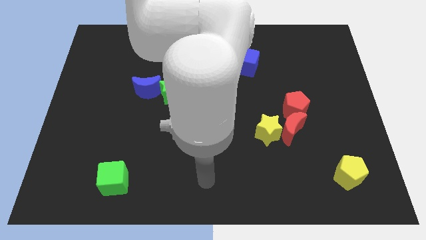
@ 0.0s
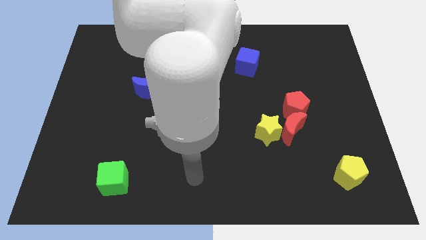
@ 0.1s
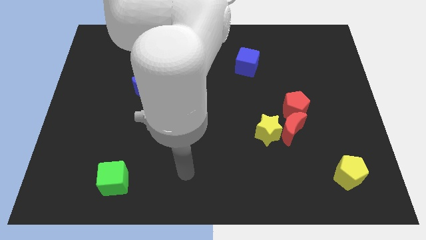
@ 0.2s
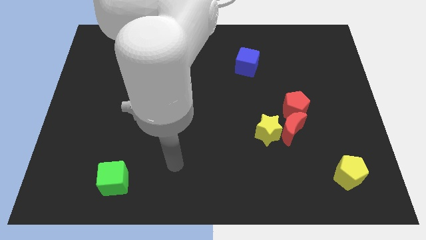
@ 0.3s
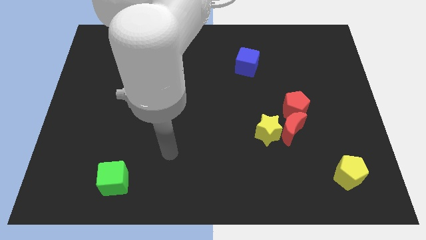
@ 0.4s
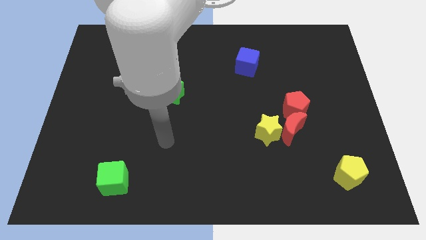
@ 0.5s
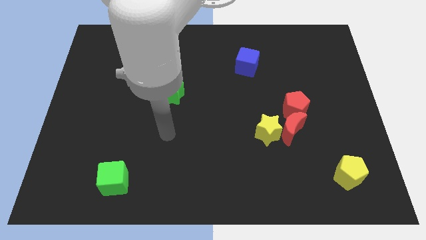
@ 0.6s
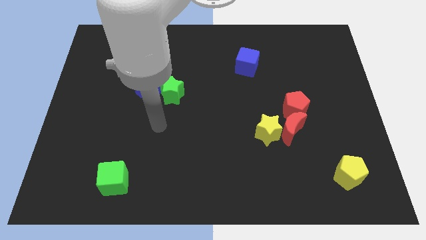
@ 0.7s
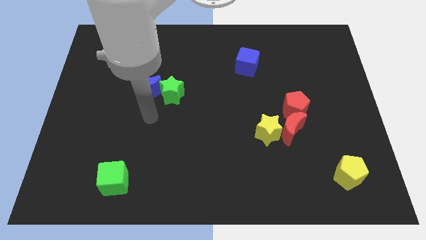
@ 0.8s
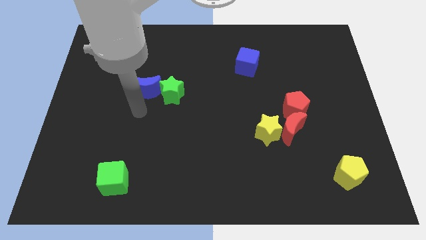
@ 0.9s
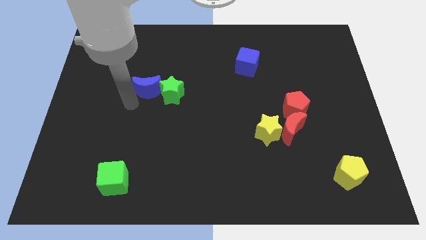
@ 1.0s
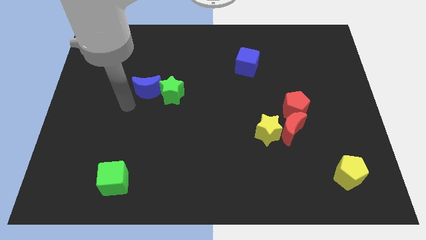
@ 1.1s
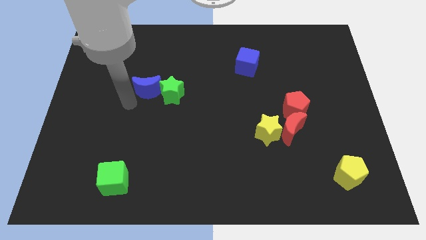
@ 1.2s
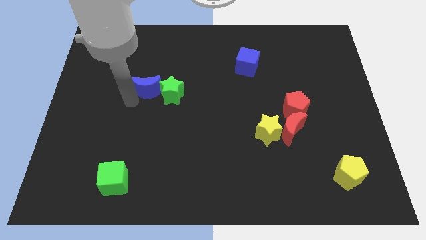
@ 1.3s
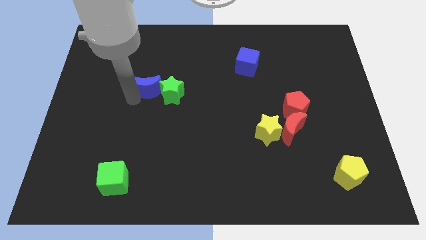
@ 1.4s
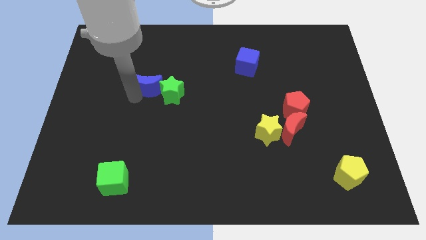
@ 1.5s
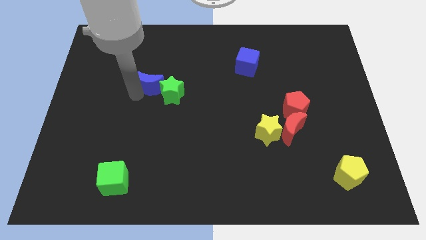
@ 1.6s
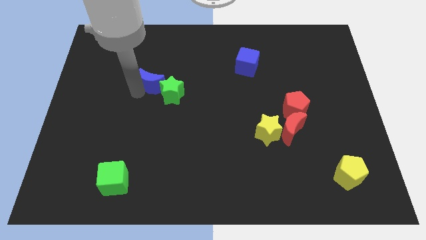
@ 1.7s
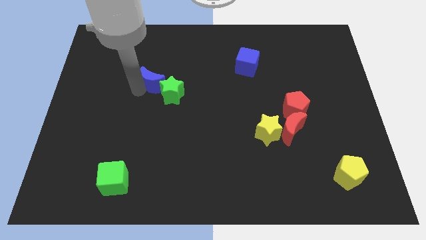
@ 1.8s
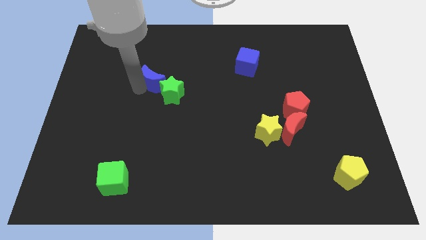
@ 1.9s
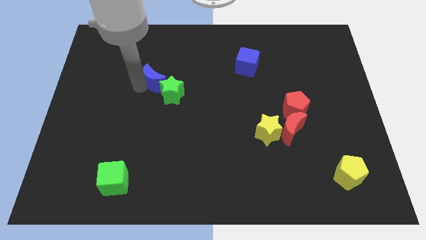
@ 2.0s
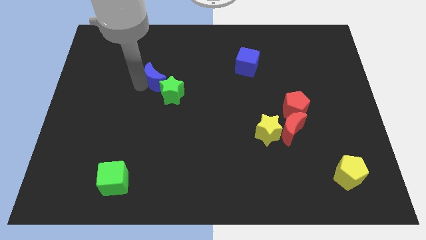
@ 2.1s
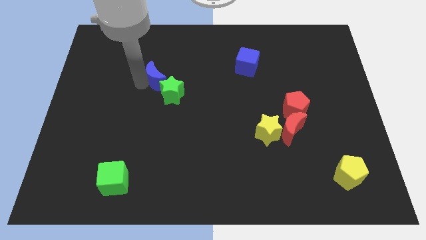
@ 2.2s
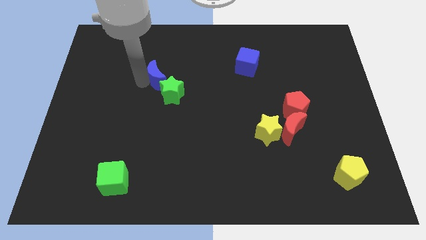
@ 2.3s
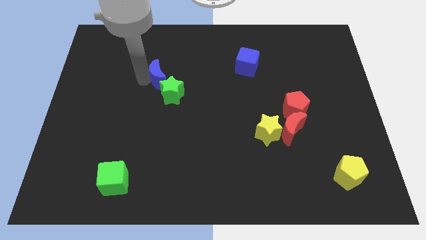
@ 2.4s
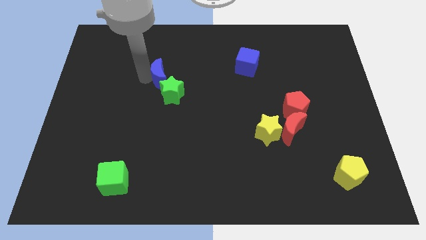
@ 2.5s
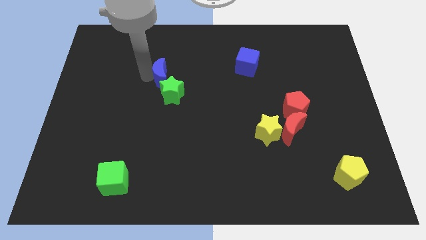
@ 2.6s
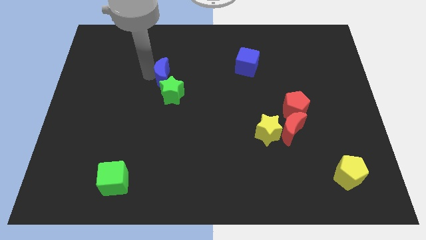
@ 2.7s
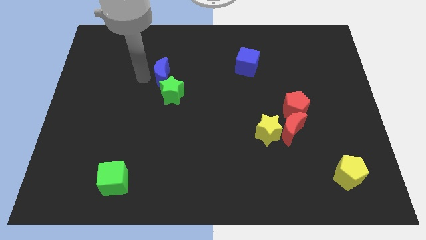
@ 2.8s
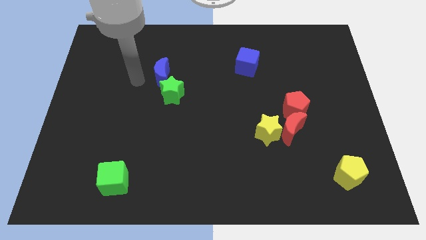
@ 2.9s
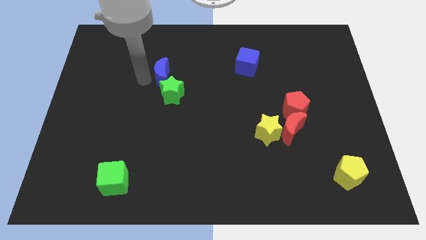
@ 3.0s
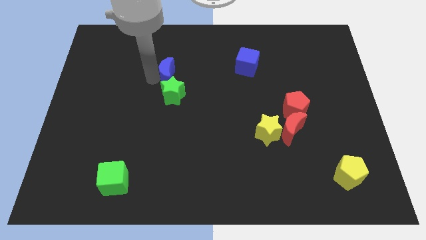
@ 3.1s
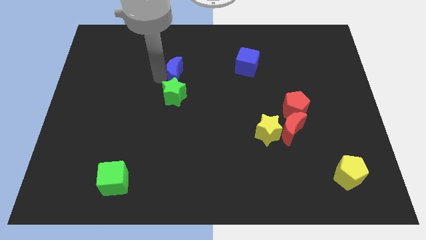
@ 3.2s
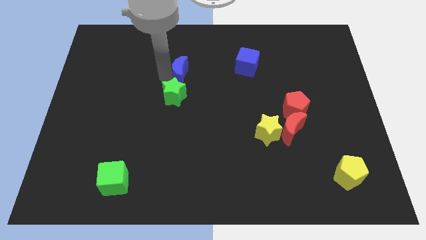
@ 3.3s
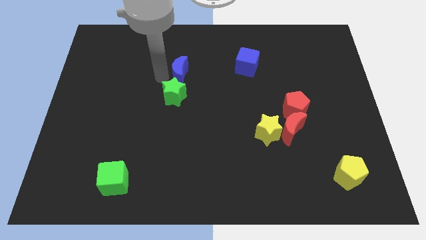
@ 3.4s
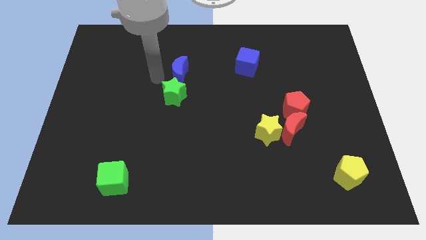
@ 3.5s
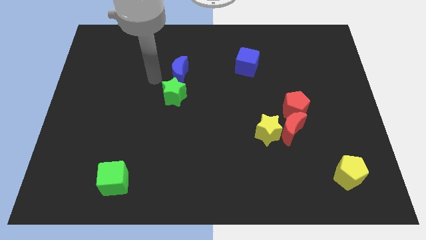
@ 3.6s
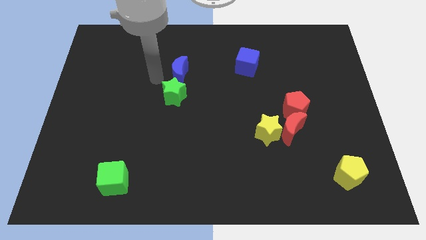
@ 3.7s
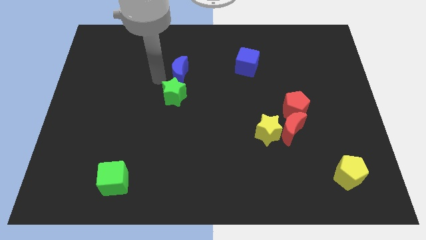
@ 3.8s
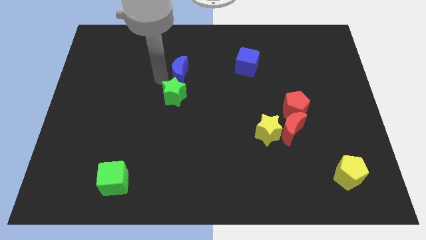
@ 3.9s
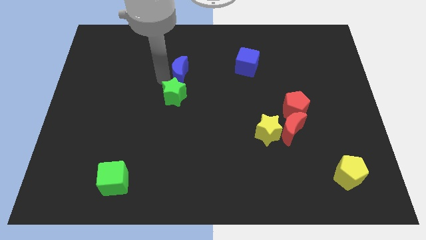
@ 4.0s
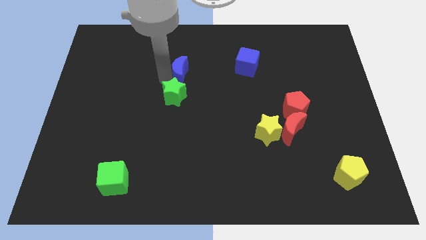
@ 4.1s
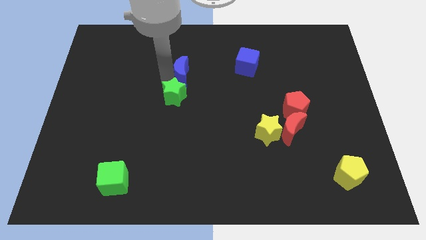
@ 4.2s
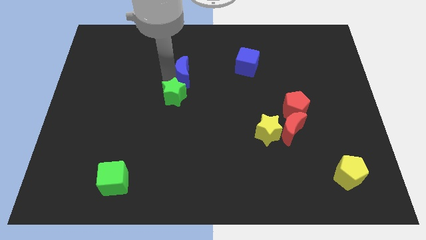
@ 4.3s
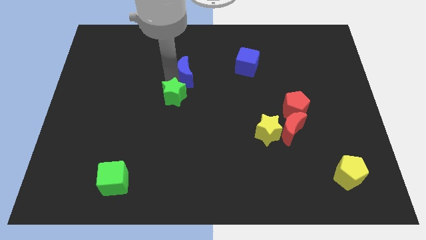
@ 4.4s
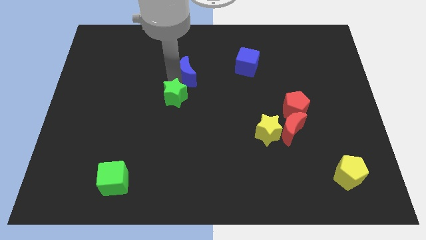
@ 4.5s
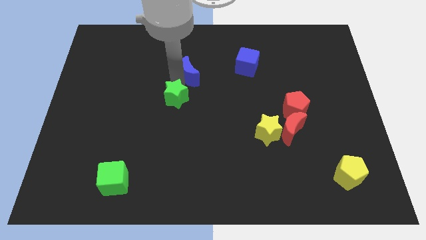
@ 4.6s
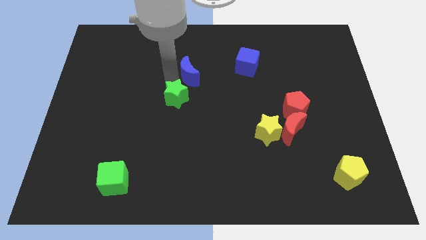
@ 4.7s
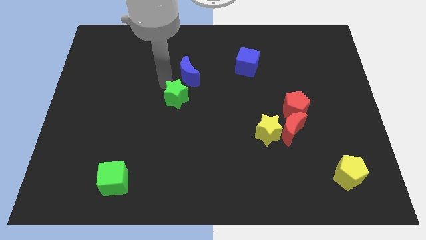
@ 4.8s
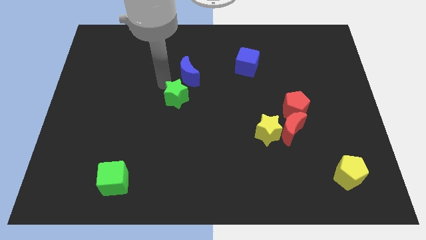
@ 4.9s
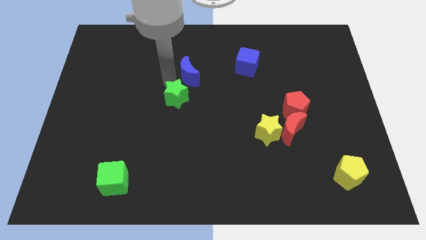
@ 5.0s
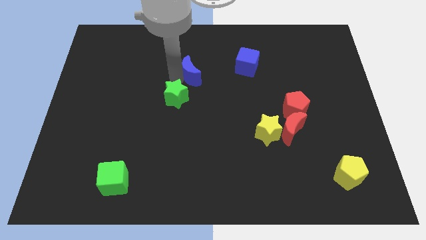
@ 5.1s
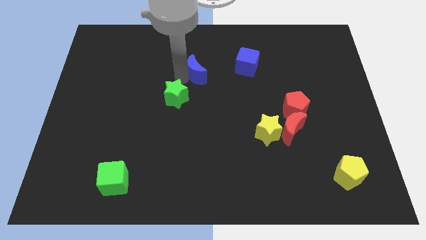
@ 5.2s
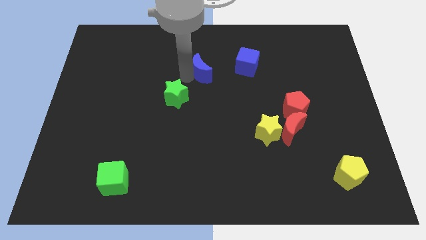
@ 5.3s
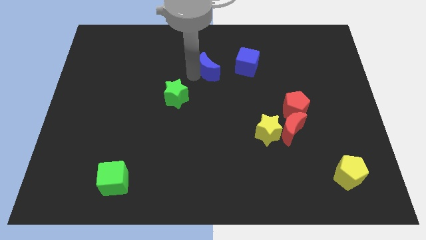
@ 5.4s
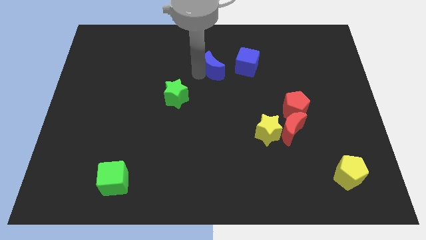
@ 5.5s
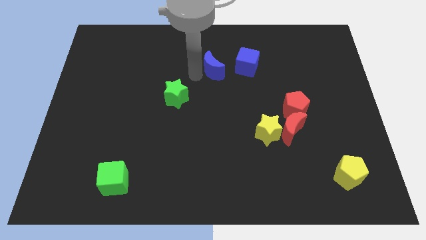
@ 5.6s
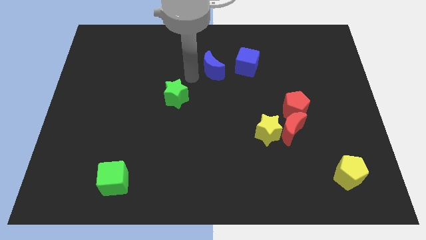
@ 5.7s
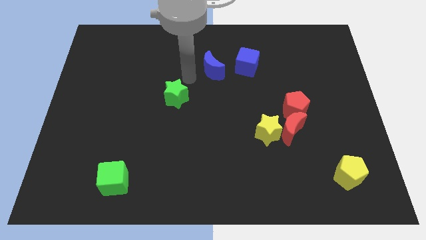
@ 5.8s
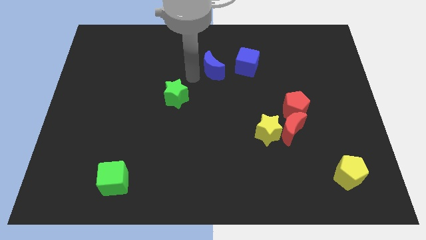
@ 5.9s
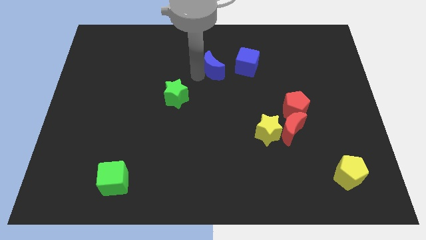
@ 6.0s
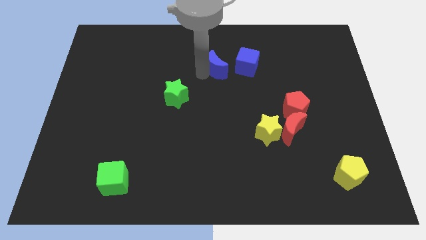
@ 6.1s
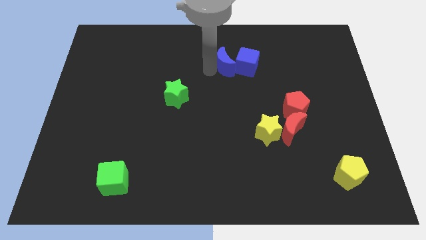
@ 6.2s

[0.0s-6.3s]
put the blue moon next to the blue cube

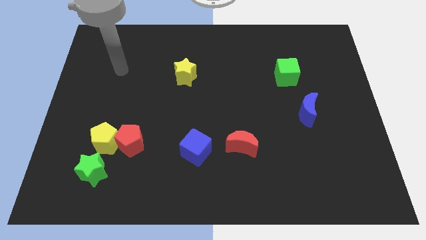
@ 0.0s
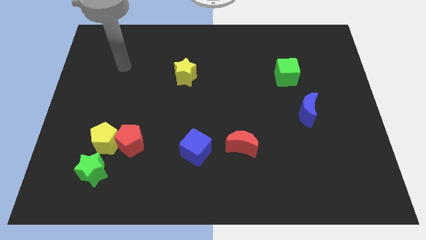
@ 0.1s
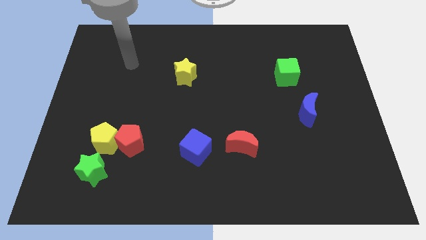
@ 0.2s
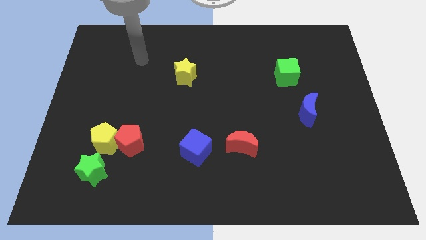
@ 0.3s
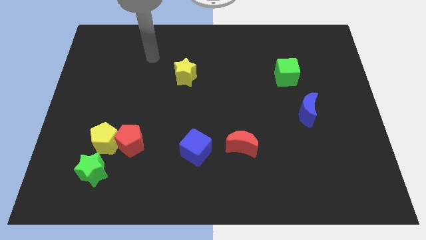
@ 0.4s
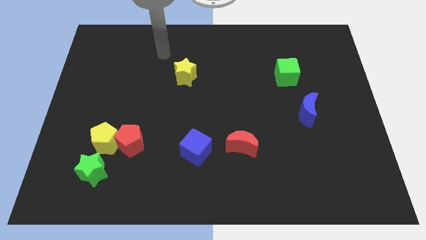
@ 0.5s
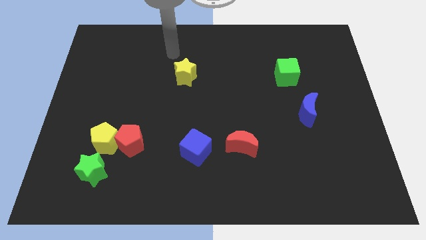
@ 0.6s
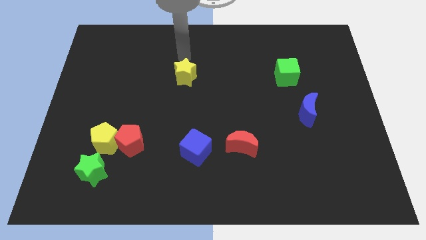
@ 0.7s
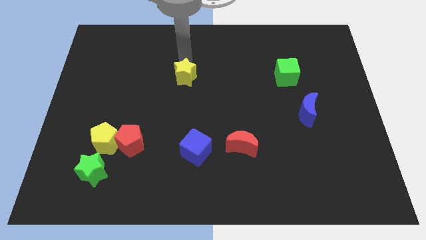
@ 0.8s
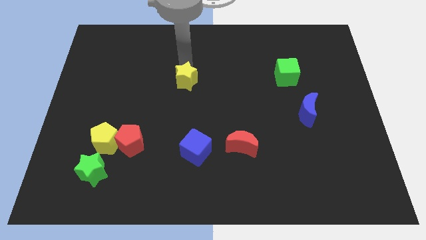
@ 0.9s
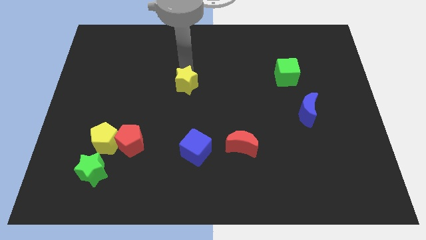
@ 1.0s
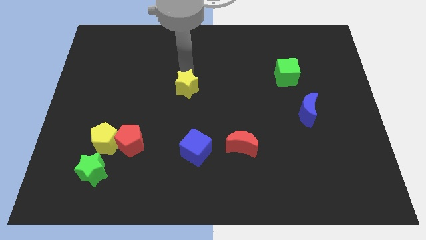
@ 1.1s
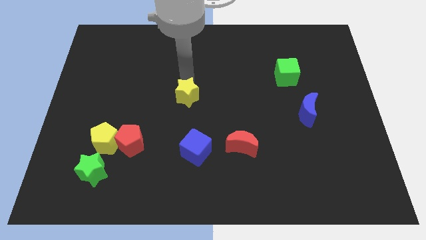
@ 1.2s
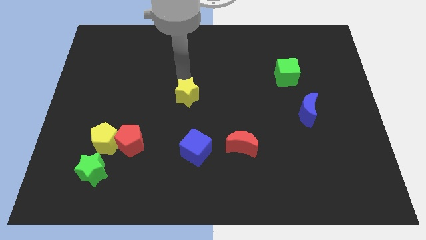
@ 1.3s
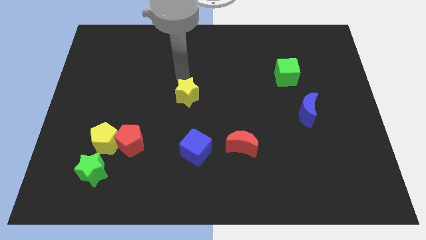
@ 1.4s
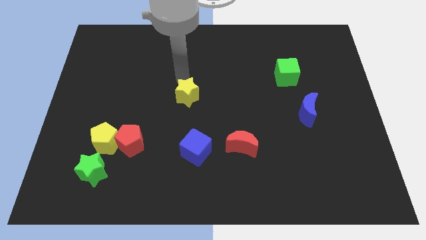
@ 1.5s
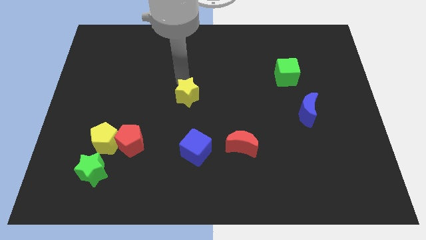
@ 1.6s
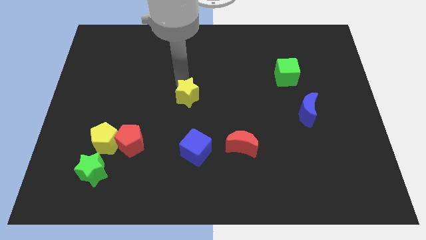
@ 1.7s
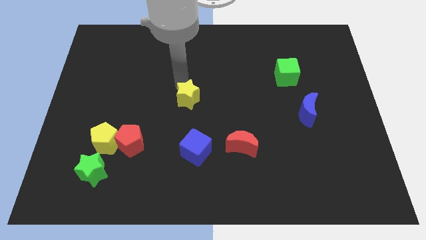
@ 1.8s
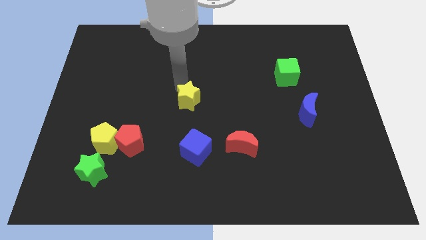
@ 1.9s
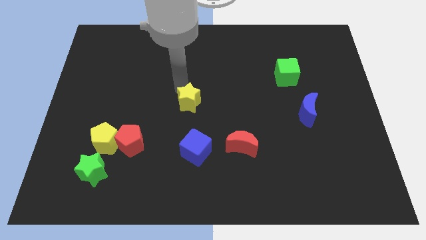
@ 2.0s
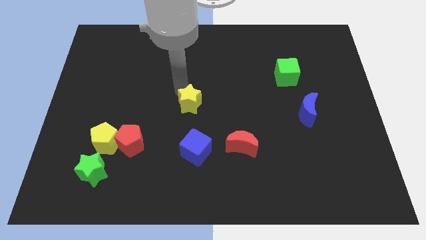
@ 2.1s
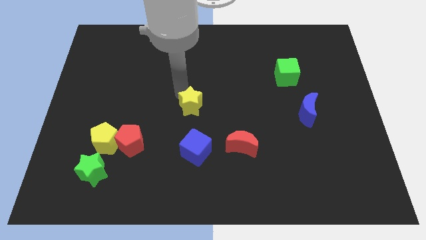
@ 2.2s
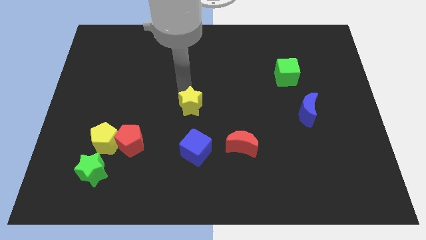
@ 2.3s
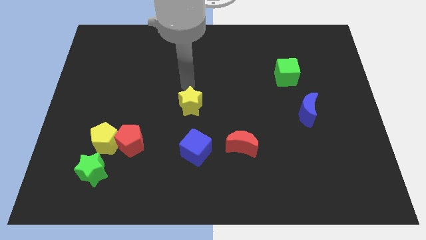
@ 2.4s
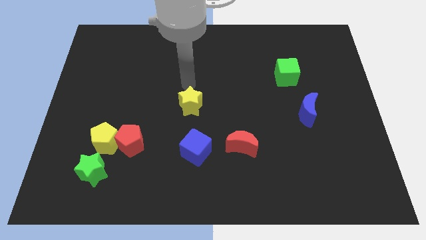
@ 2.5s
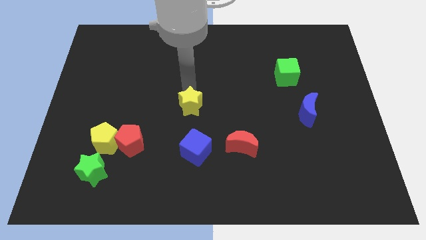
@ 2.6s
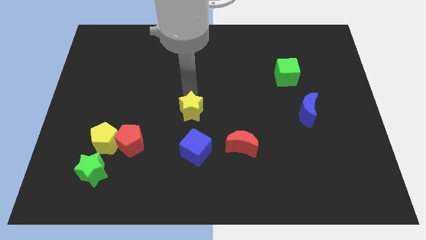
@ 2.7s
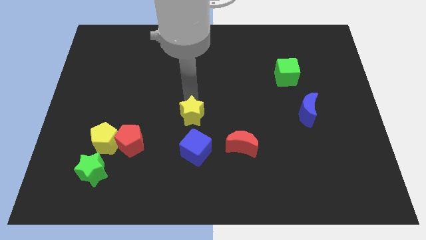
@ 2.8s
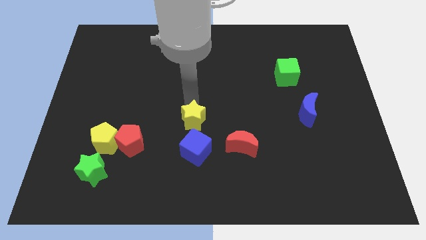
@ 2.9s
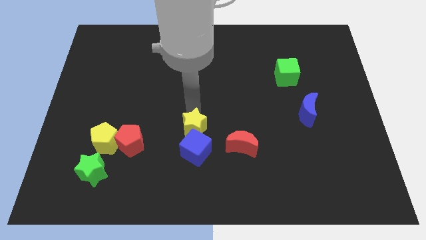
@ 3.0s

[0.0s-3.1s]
move the yellow star to the blue cube
